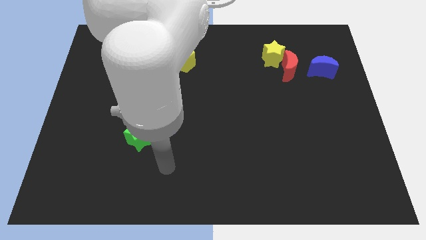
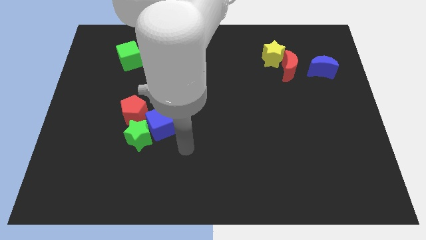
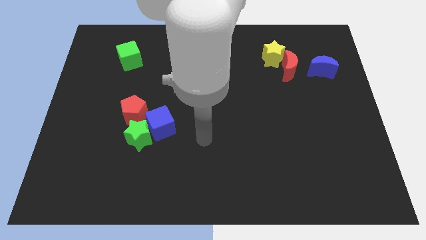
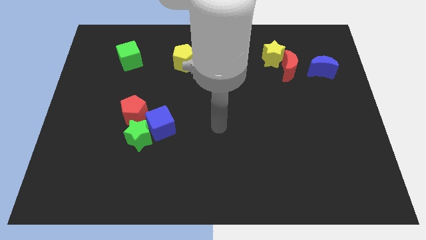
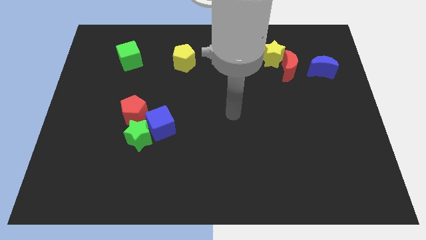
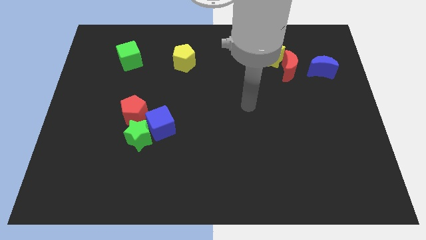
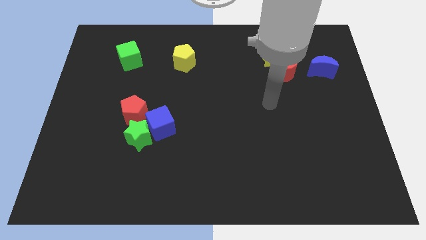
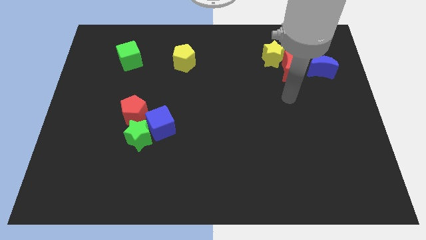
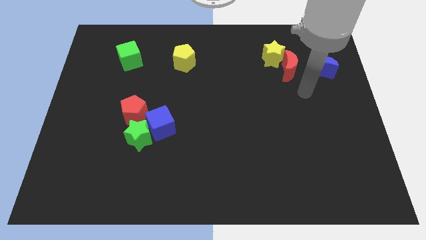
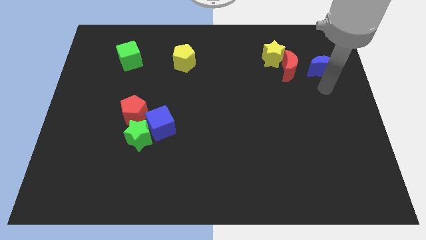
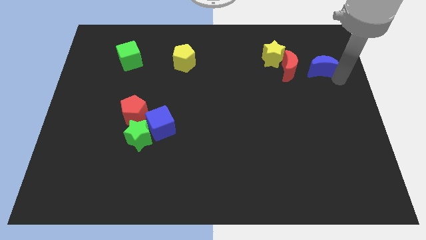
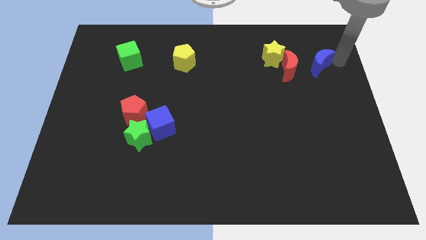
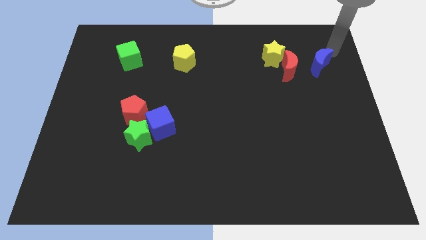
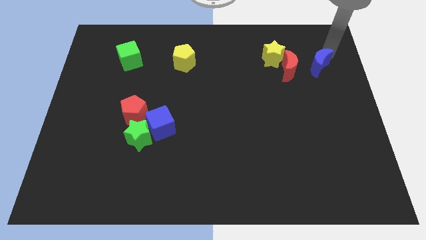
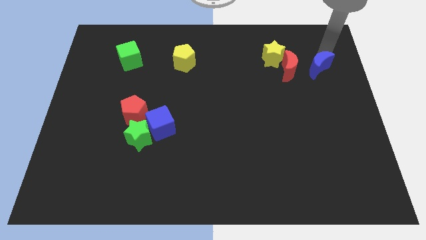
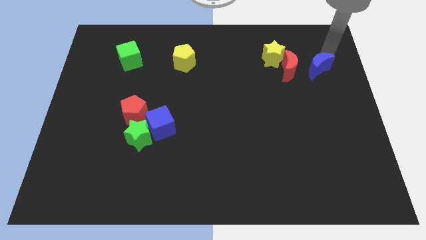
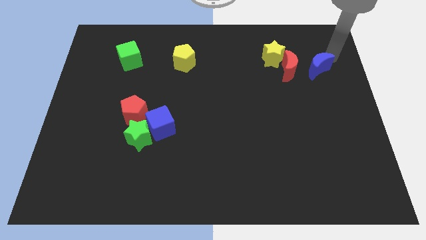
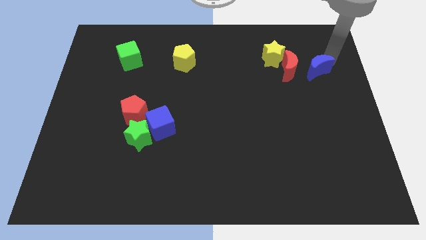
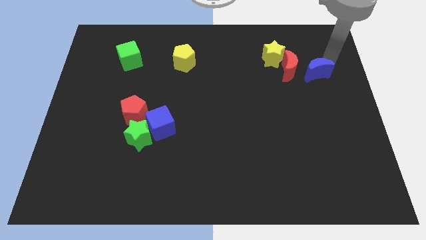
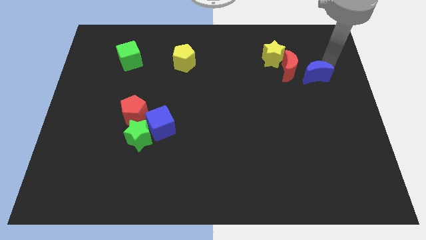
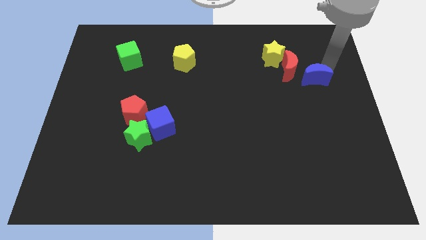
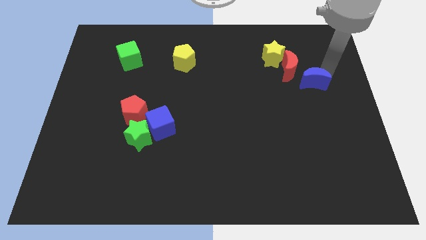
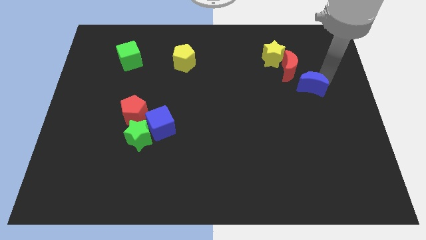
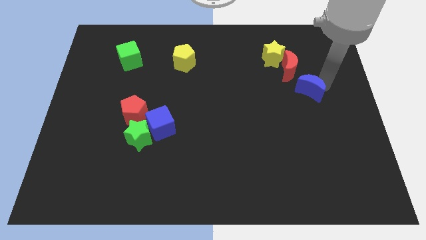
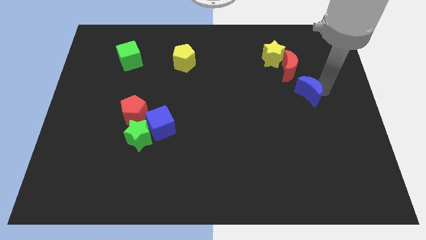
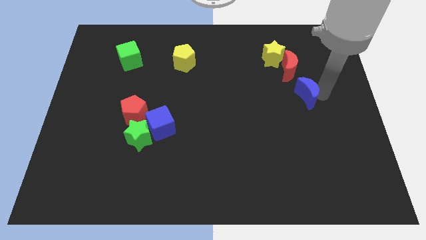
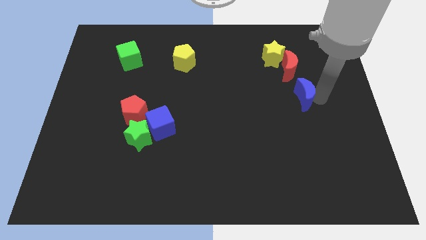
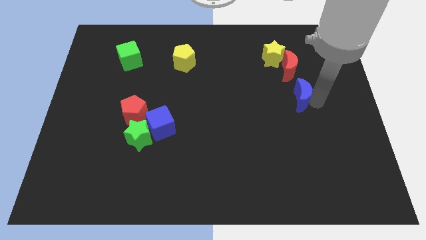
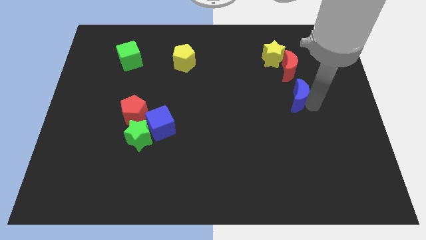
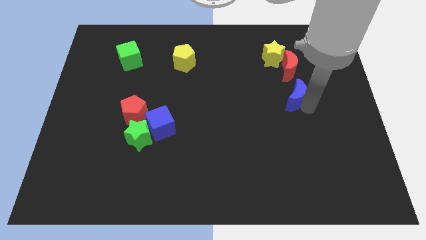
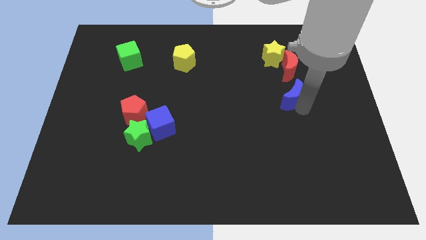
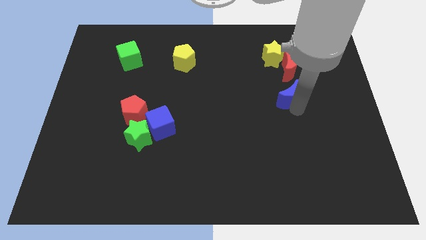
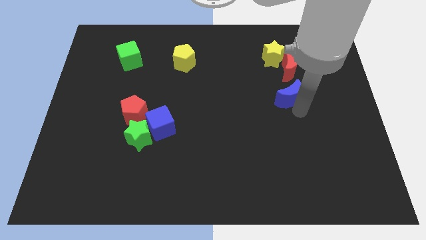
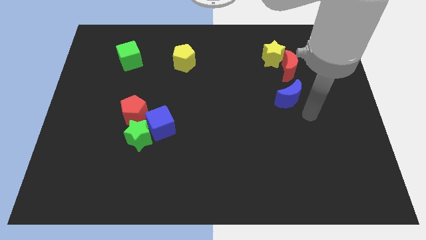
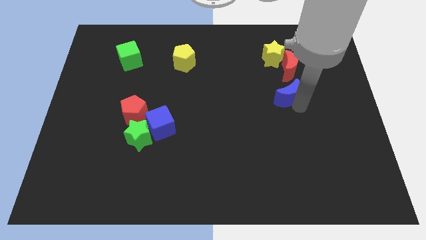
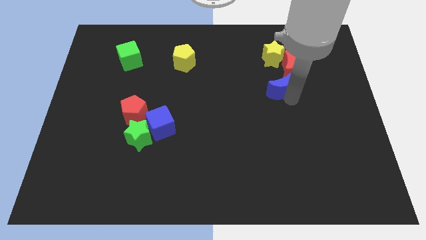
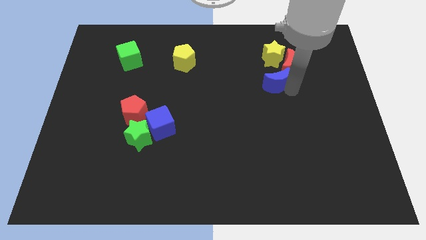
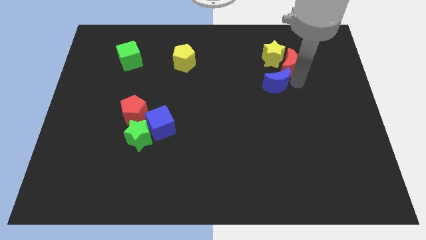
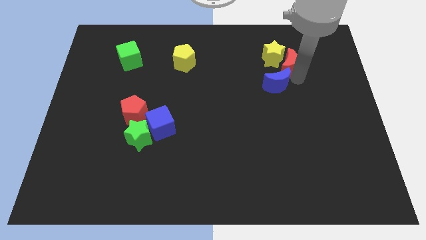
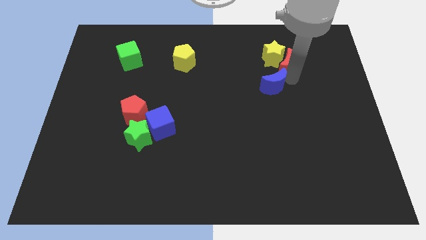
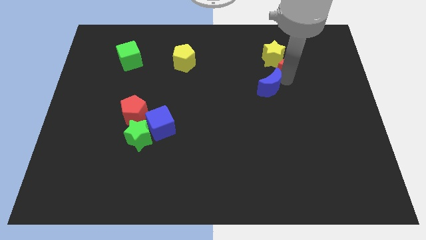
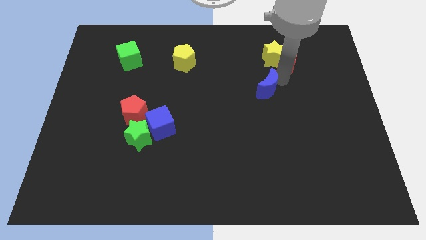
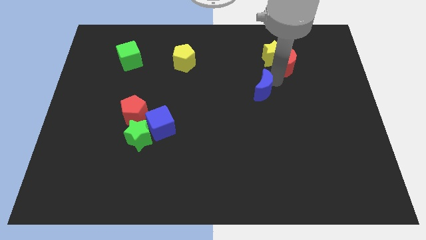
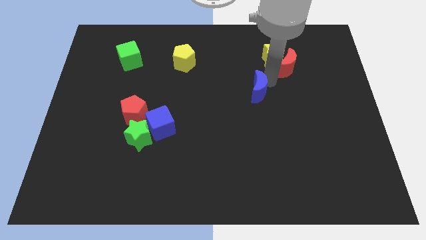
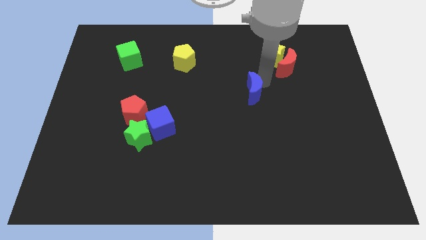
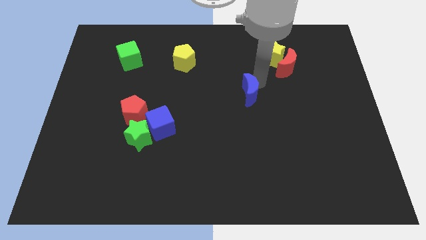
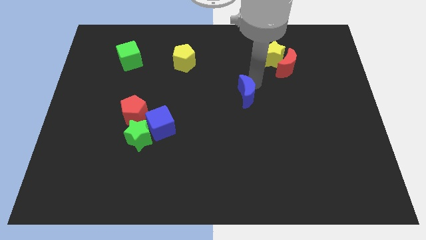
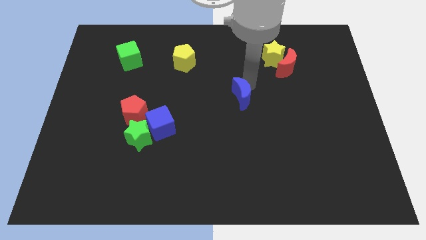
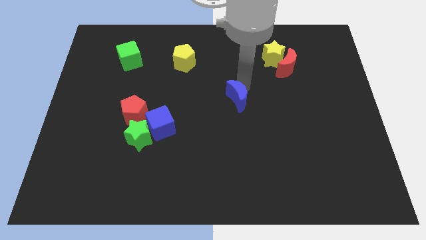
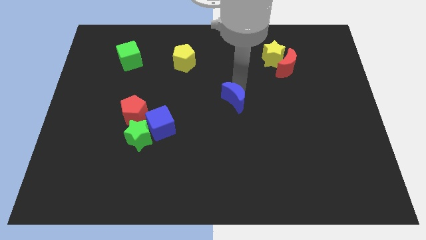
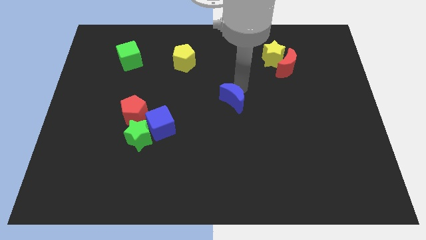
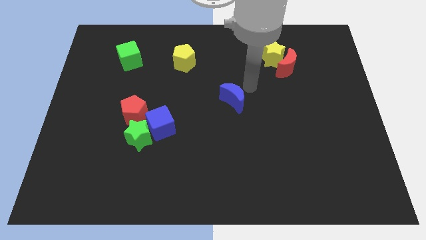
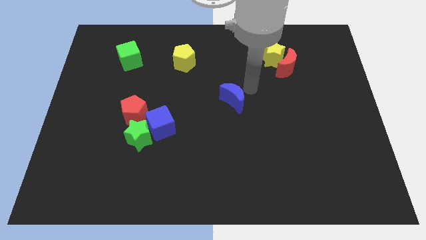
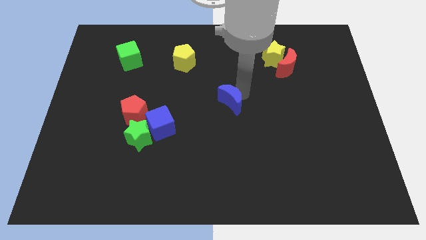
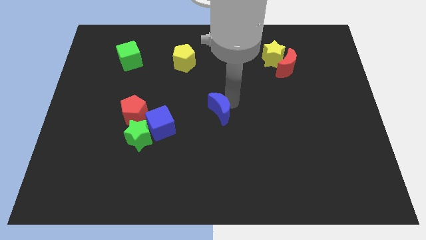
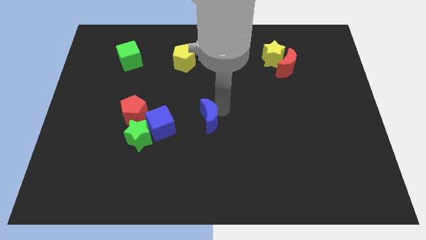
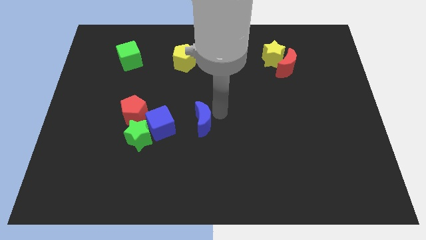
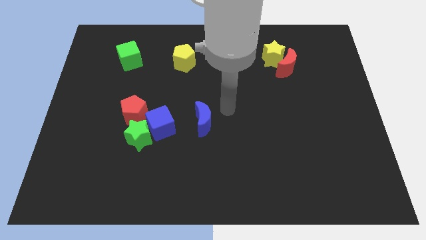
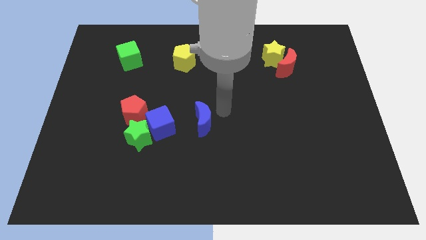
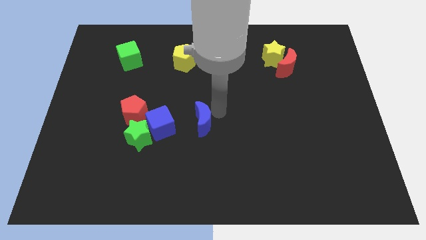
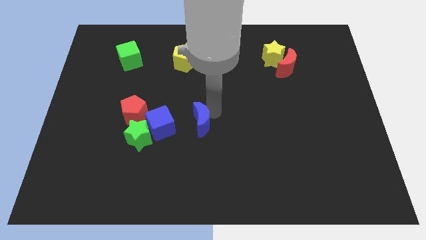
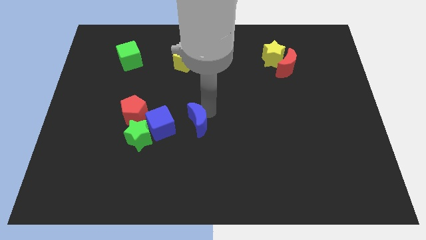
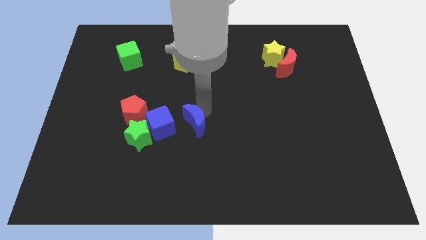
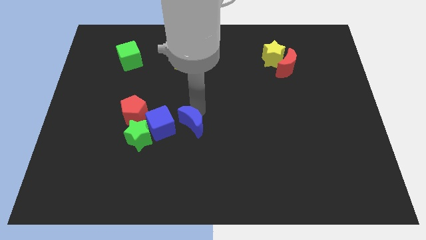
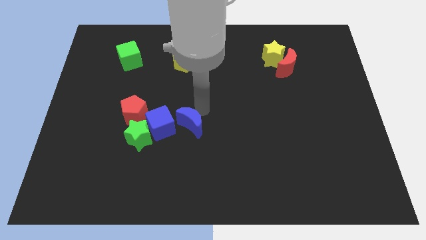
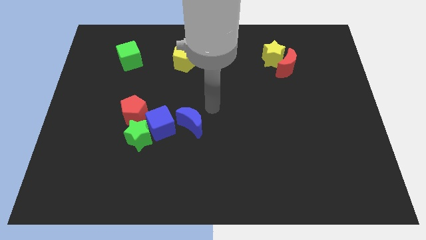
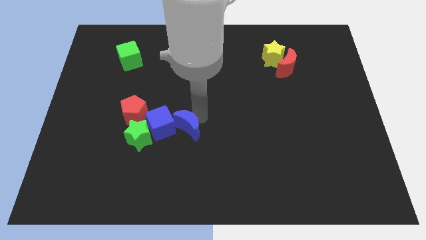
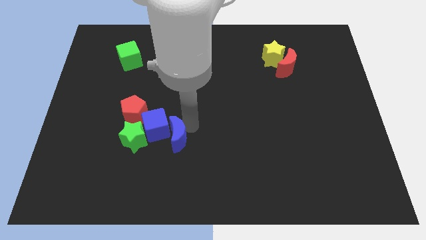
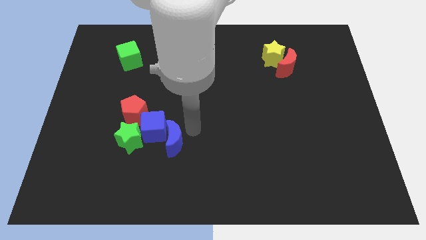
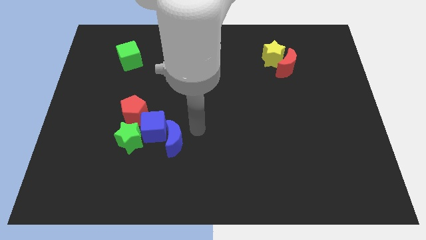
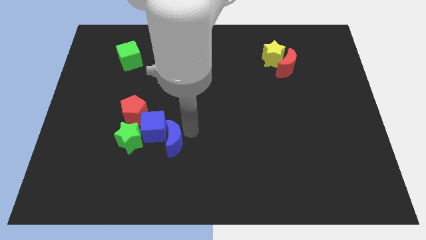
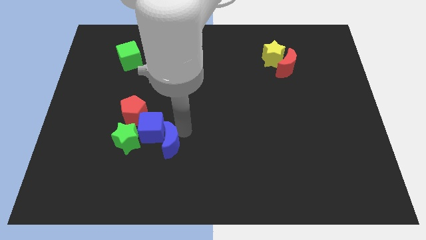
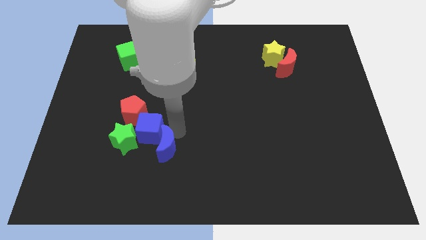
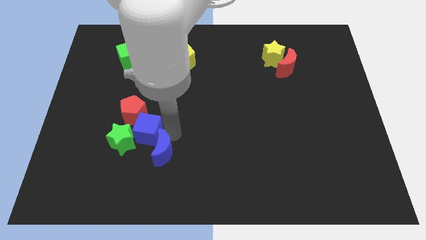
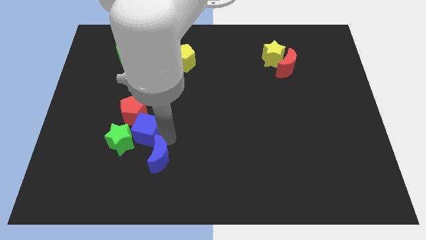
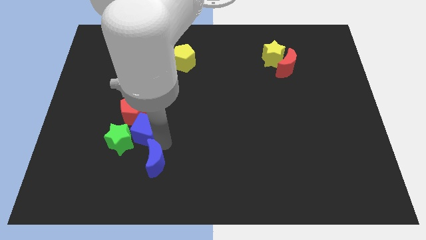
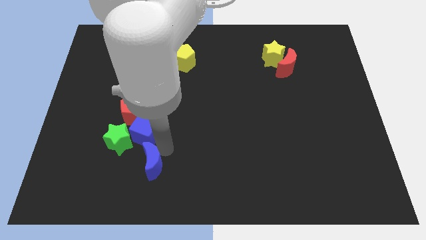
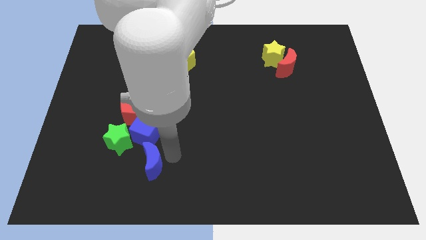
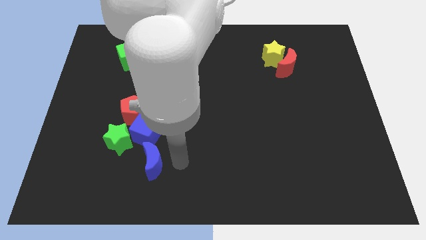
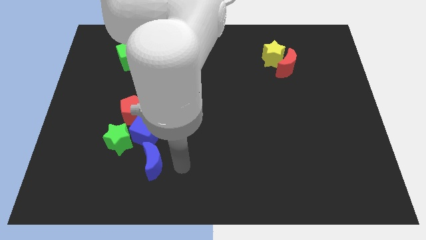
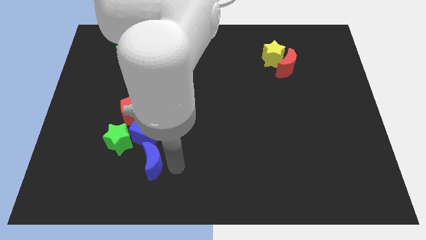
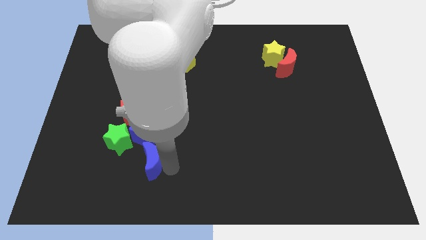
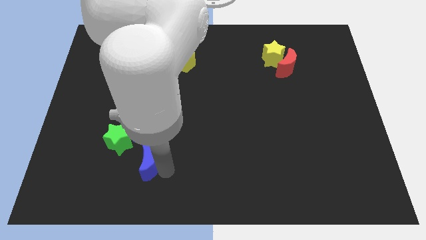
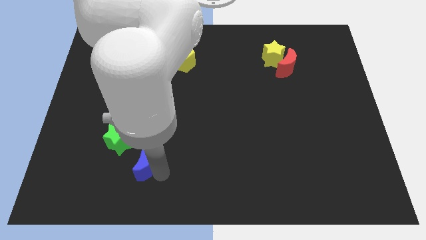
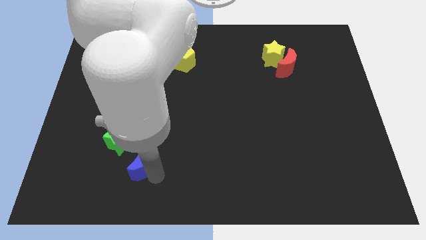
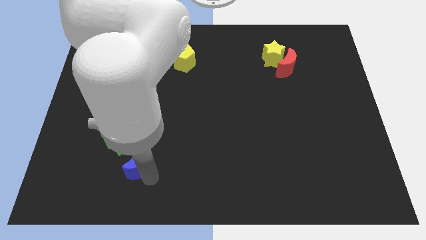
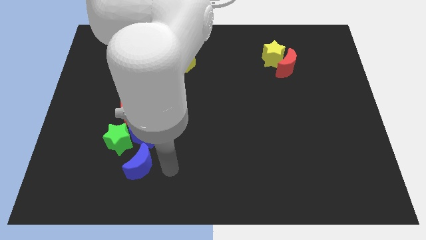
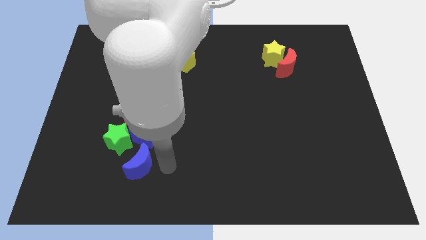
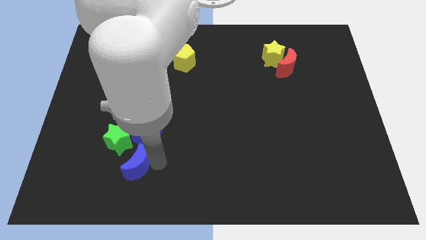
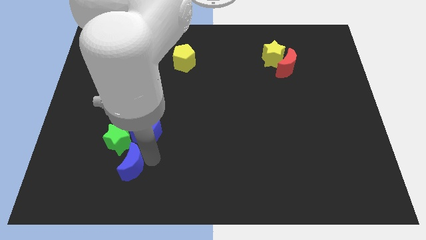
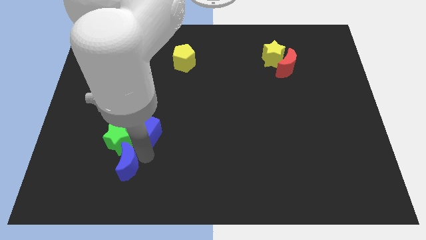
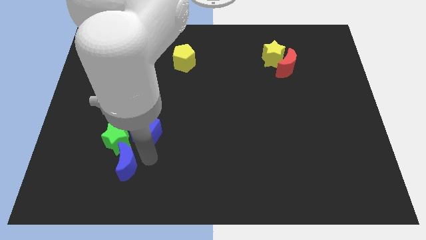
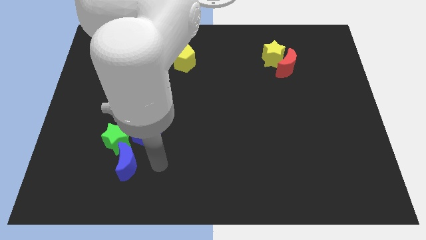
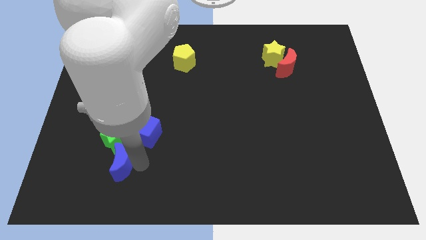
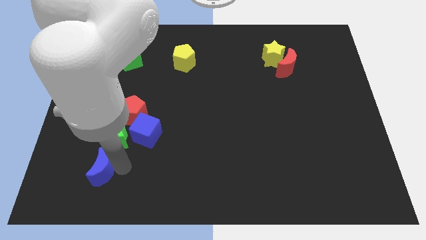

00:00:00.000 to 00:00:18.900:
move the blue moon to the bottom left of the green star
